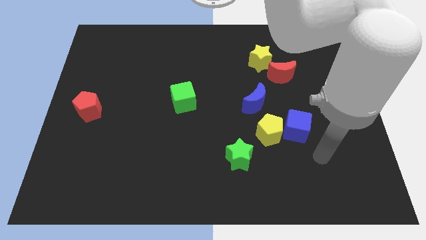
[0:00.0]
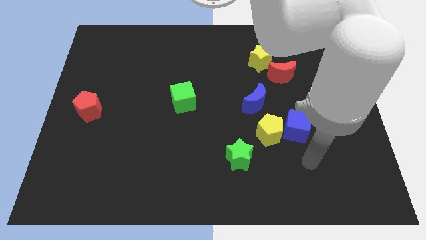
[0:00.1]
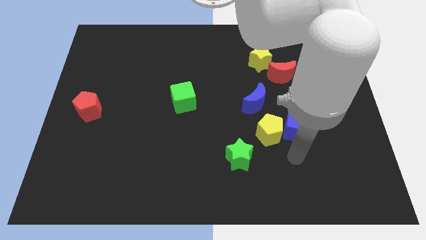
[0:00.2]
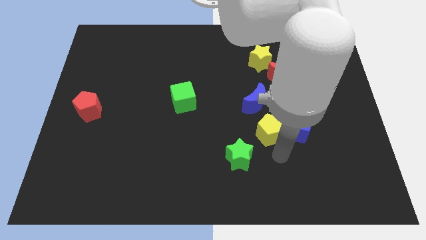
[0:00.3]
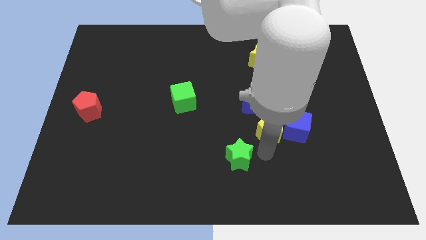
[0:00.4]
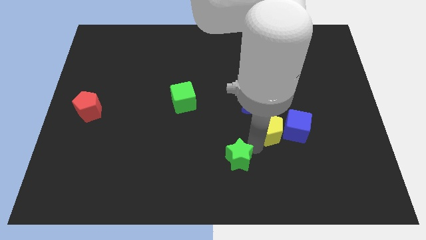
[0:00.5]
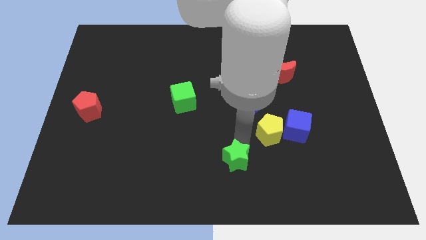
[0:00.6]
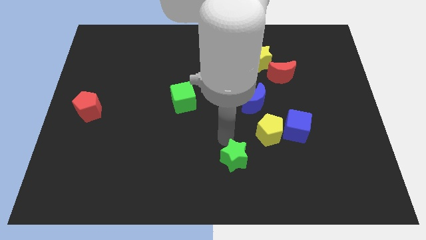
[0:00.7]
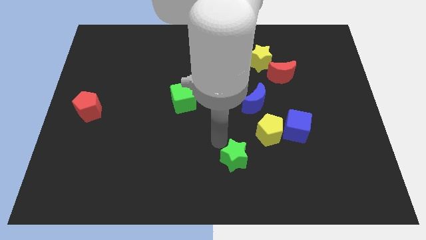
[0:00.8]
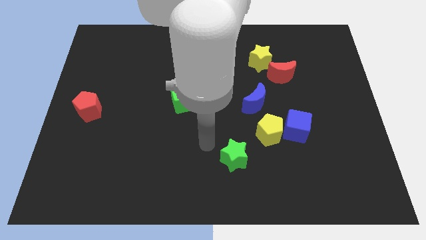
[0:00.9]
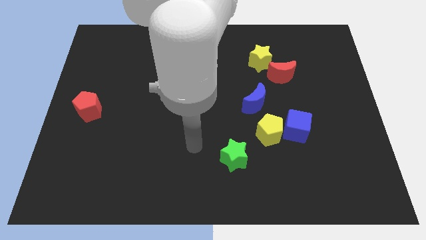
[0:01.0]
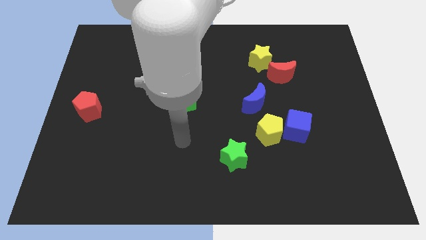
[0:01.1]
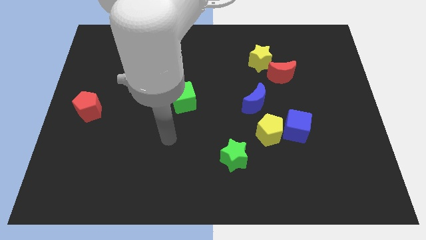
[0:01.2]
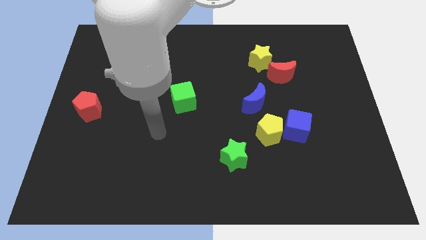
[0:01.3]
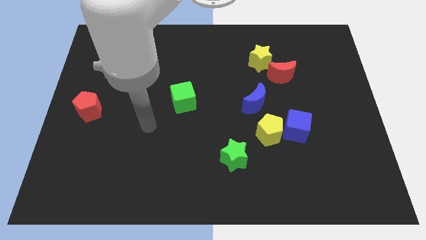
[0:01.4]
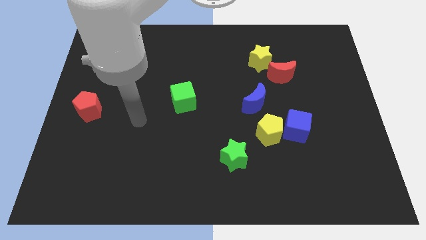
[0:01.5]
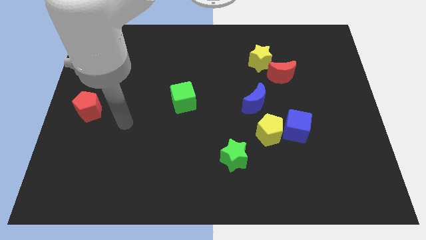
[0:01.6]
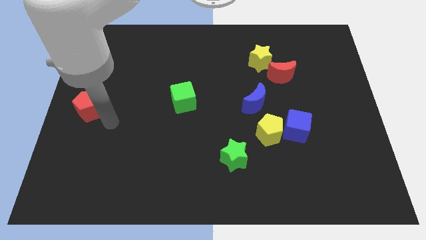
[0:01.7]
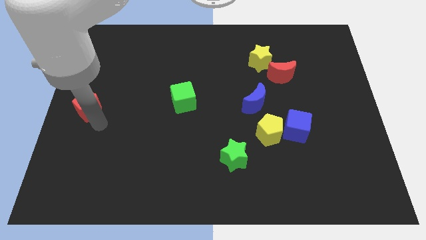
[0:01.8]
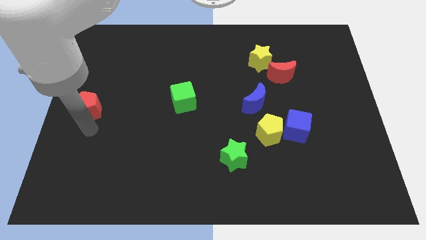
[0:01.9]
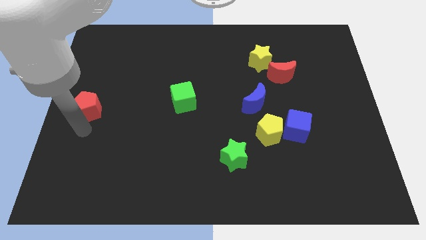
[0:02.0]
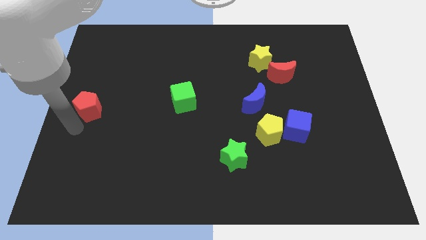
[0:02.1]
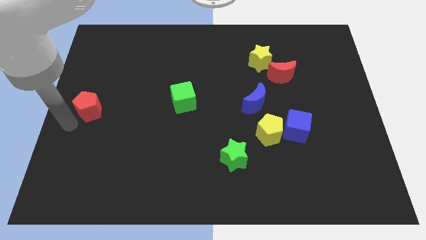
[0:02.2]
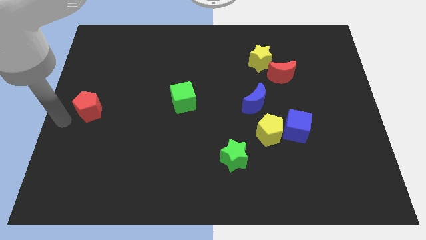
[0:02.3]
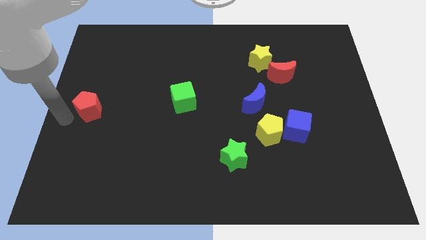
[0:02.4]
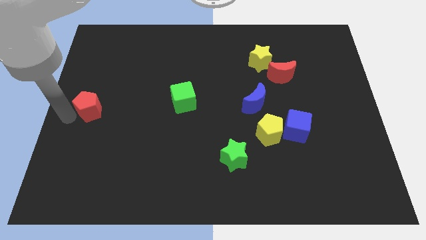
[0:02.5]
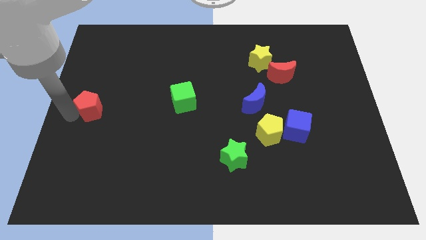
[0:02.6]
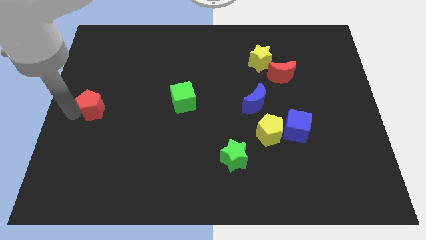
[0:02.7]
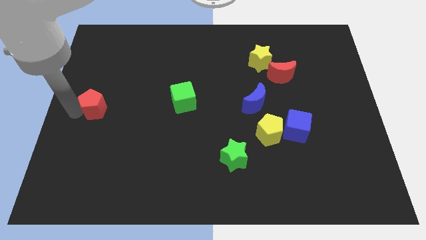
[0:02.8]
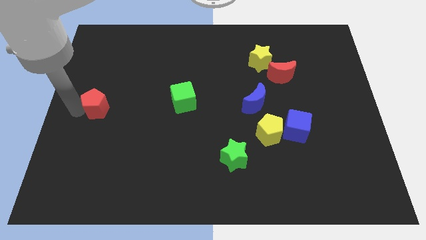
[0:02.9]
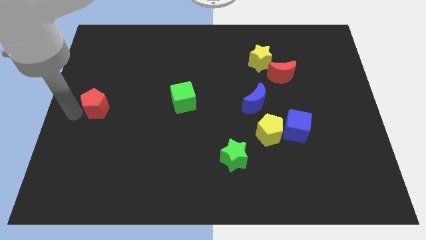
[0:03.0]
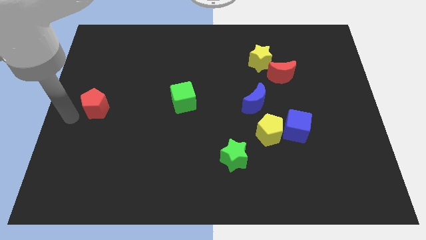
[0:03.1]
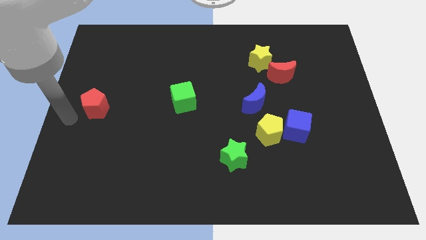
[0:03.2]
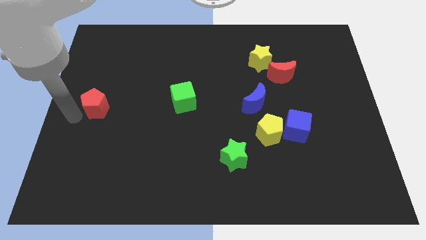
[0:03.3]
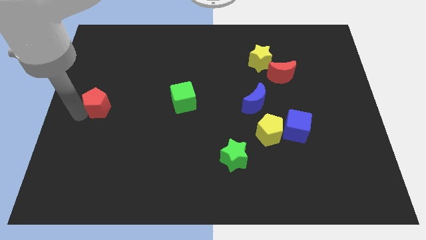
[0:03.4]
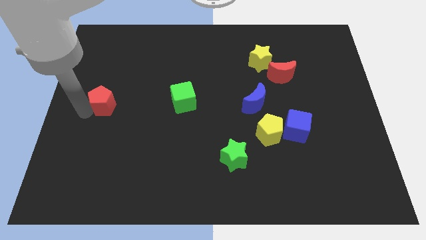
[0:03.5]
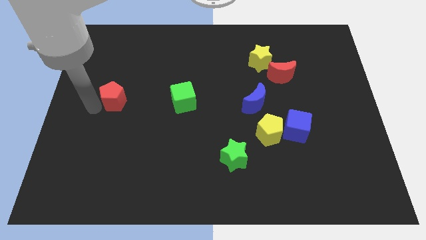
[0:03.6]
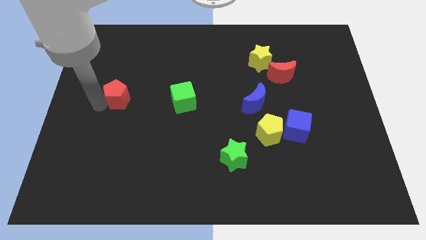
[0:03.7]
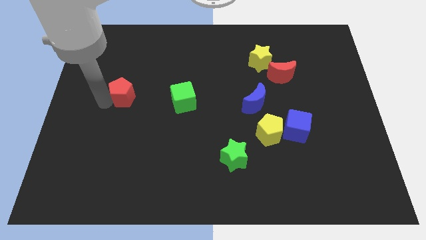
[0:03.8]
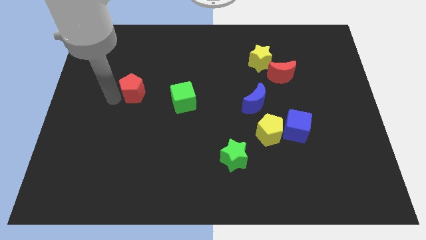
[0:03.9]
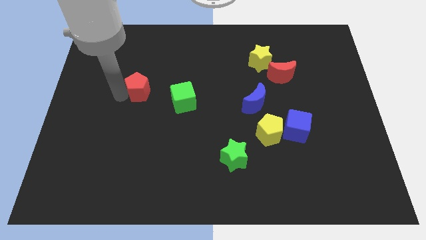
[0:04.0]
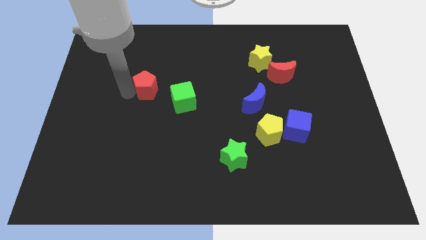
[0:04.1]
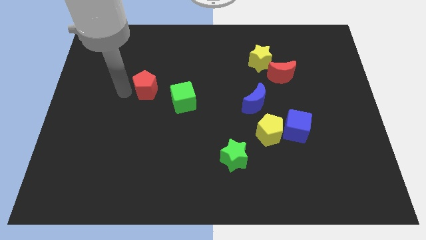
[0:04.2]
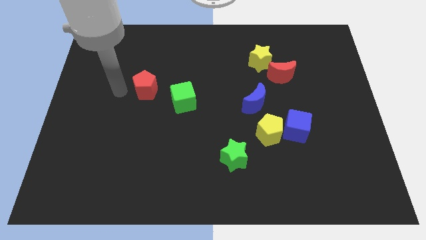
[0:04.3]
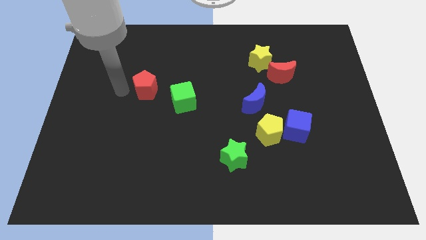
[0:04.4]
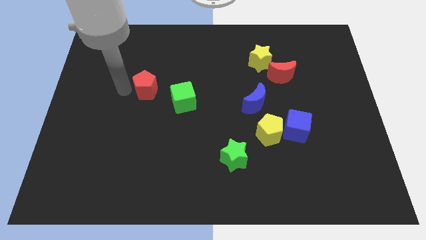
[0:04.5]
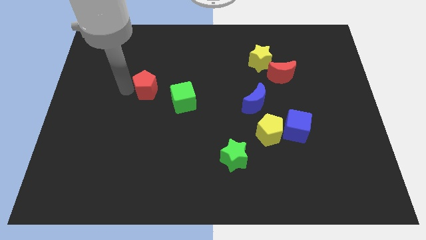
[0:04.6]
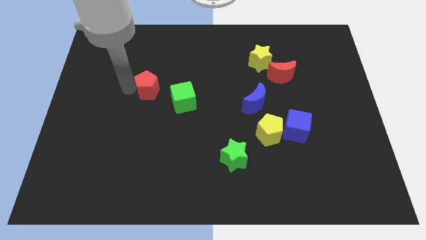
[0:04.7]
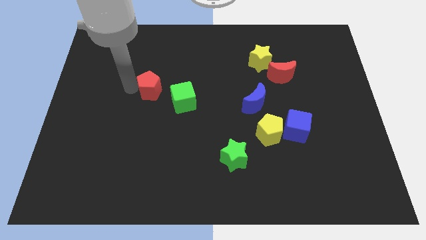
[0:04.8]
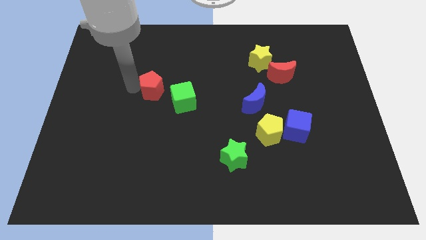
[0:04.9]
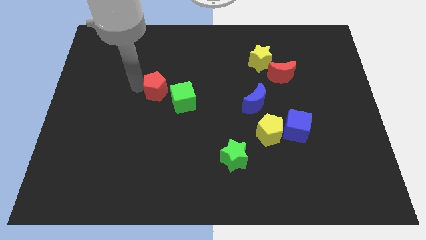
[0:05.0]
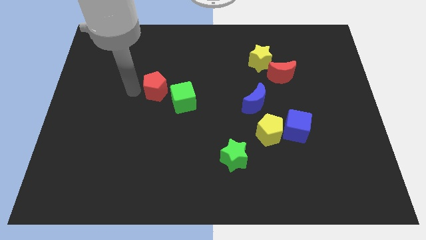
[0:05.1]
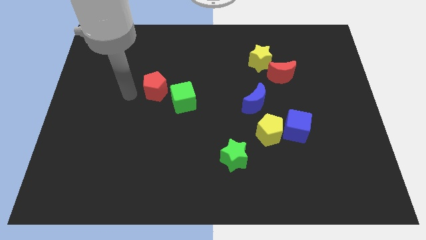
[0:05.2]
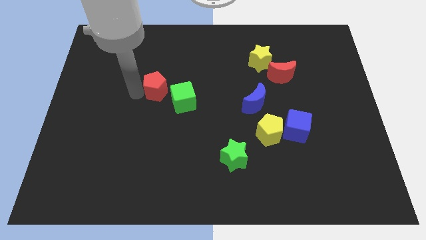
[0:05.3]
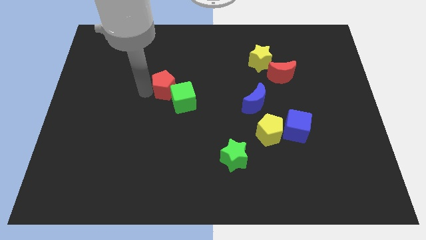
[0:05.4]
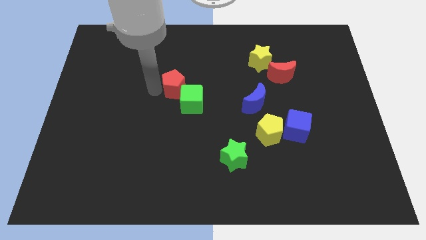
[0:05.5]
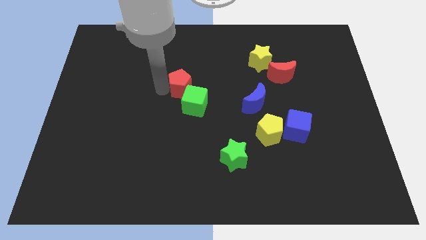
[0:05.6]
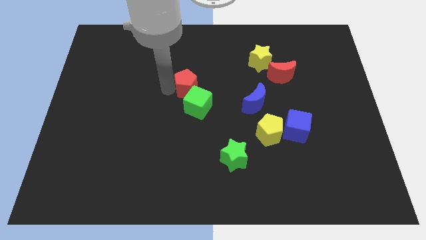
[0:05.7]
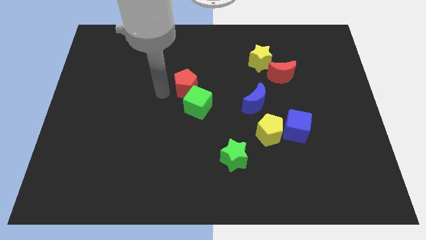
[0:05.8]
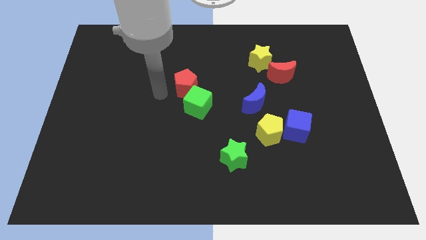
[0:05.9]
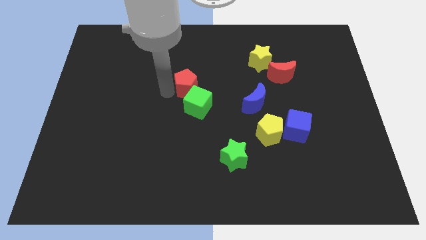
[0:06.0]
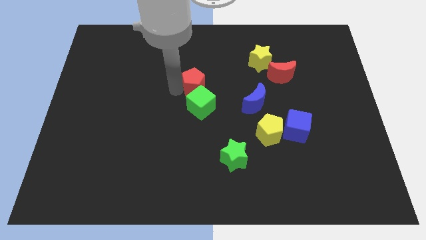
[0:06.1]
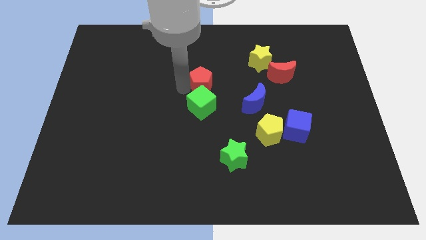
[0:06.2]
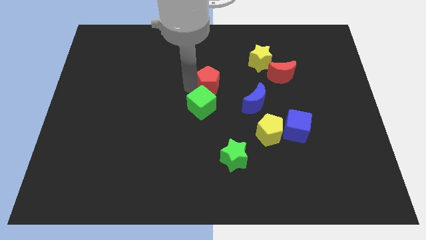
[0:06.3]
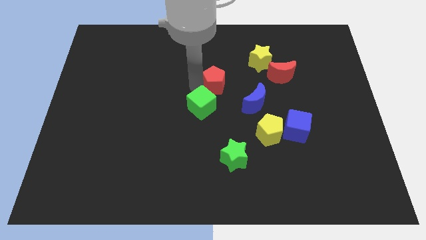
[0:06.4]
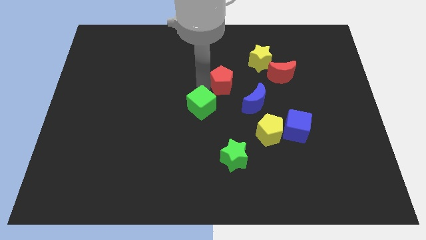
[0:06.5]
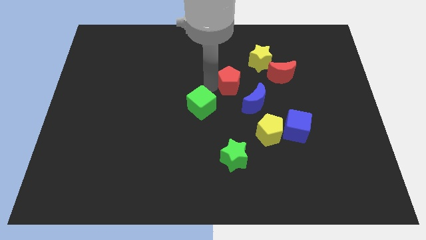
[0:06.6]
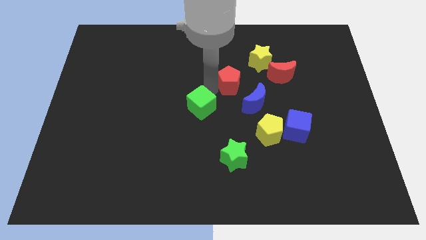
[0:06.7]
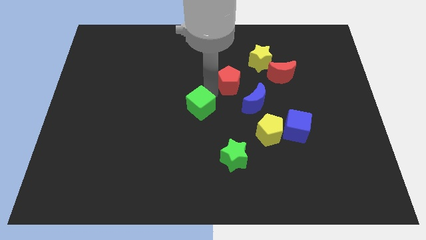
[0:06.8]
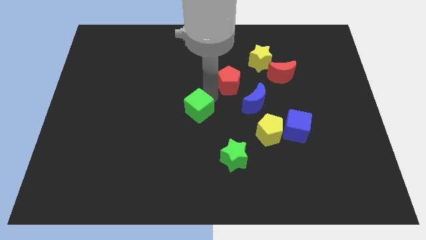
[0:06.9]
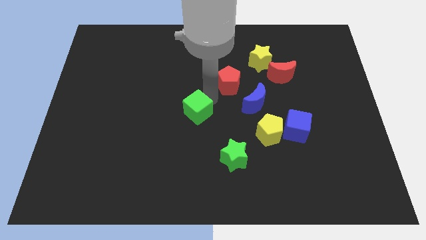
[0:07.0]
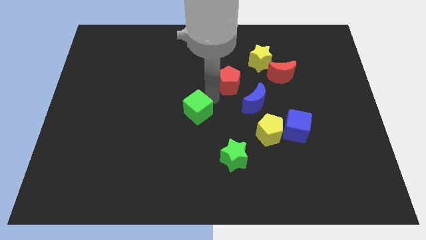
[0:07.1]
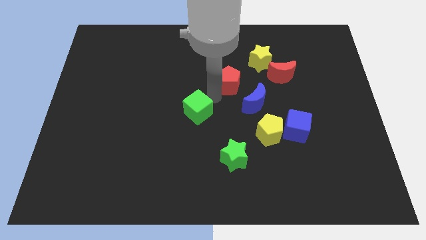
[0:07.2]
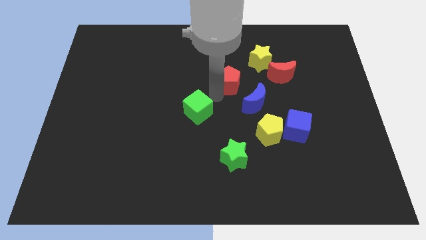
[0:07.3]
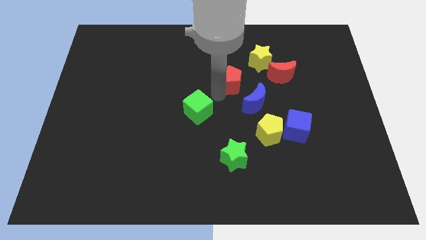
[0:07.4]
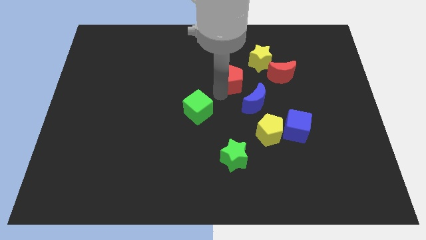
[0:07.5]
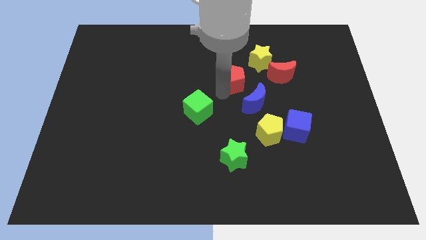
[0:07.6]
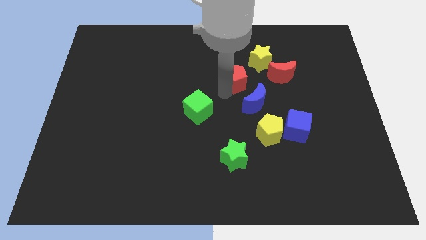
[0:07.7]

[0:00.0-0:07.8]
push the red pentagon to the top of the blue moon
